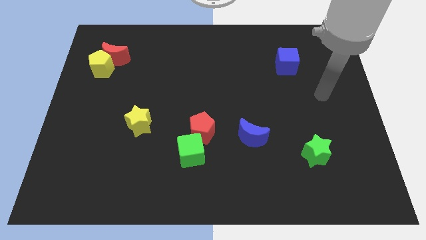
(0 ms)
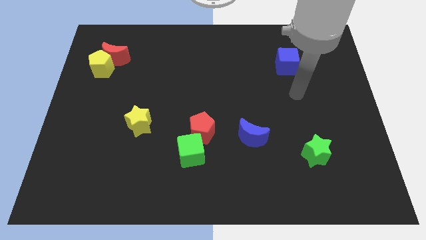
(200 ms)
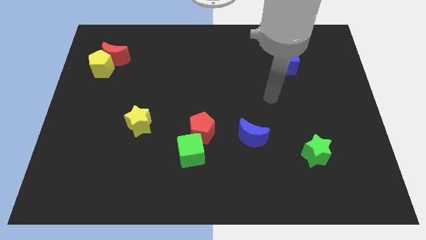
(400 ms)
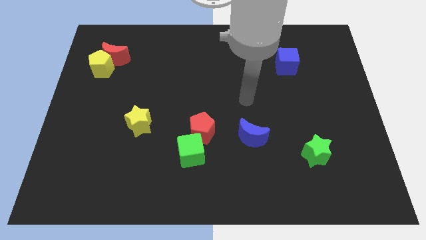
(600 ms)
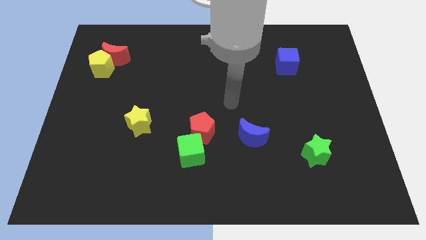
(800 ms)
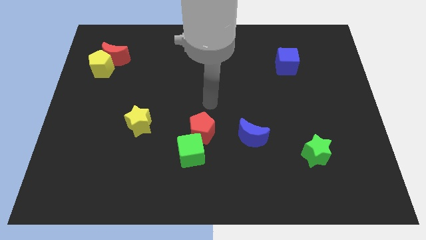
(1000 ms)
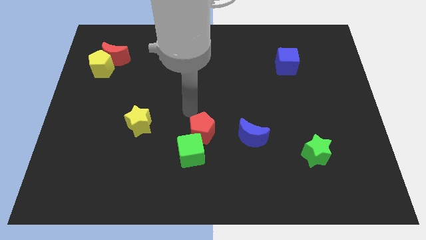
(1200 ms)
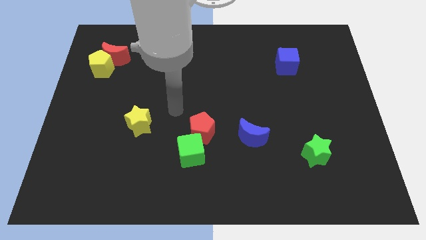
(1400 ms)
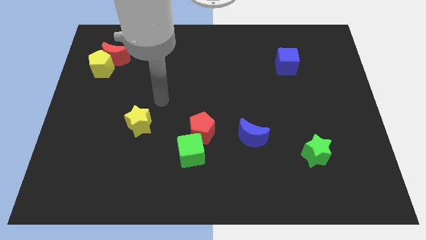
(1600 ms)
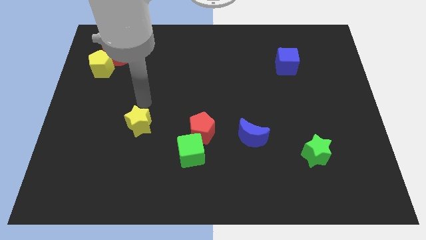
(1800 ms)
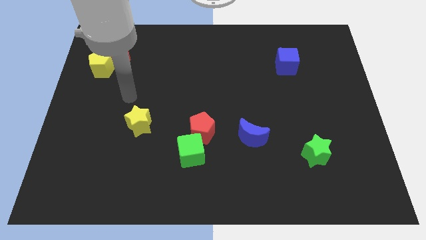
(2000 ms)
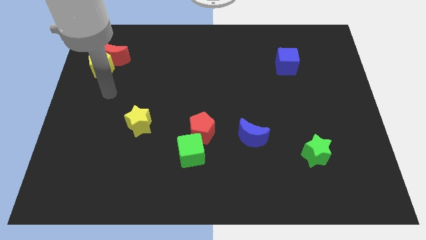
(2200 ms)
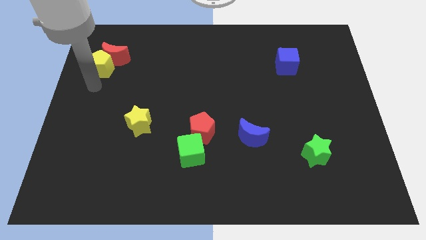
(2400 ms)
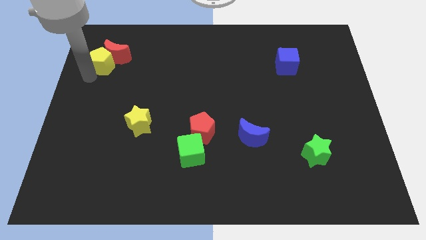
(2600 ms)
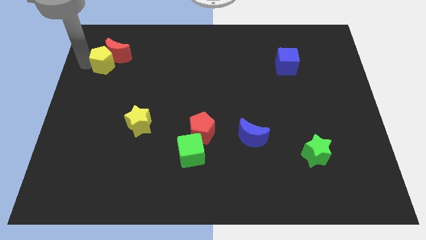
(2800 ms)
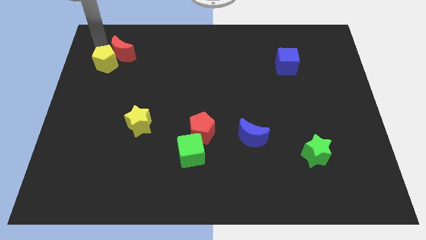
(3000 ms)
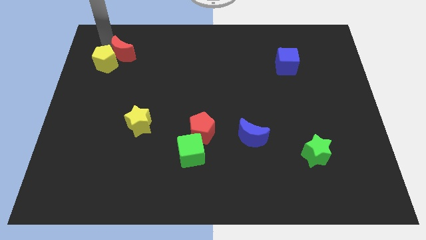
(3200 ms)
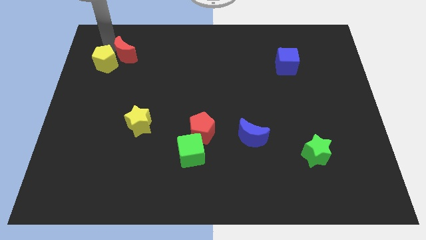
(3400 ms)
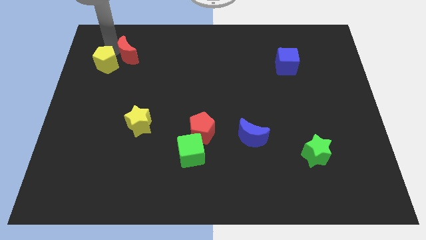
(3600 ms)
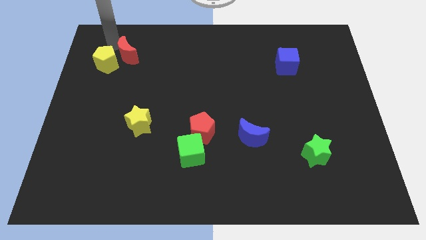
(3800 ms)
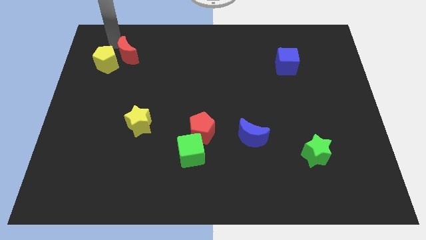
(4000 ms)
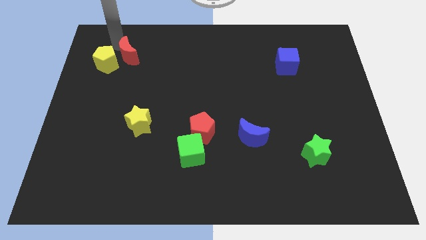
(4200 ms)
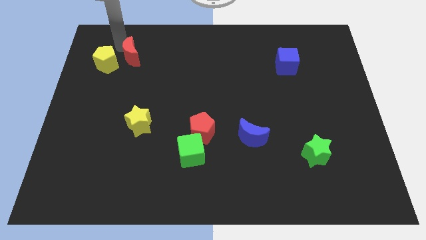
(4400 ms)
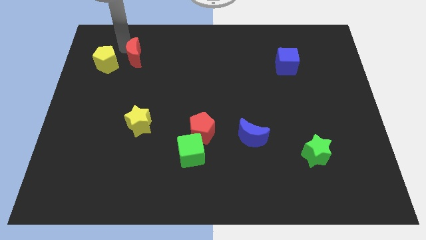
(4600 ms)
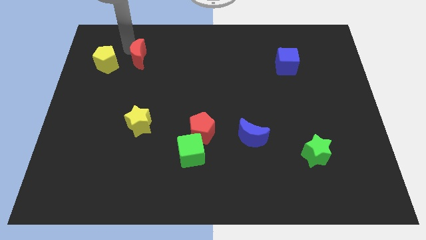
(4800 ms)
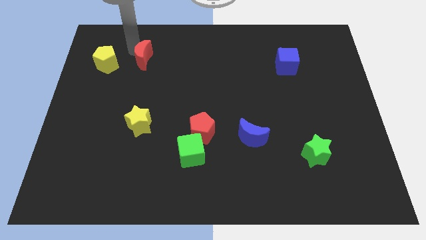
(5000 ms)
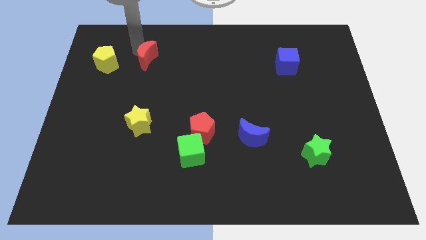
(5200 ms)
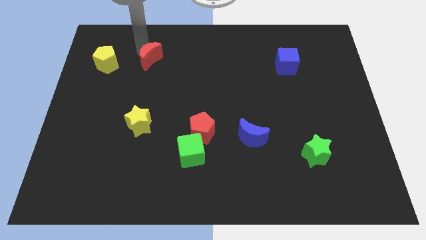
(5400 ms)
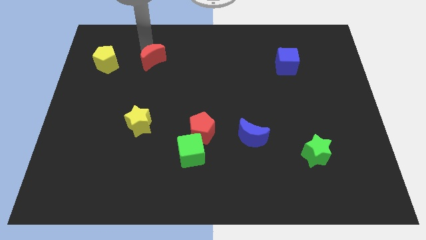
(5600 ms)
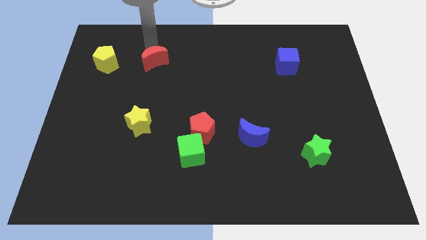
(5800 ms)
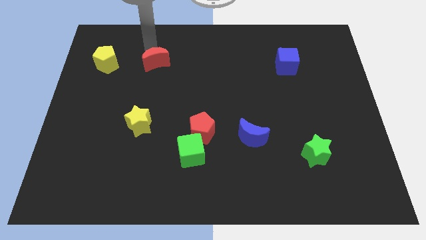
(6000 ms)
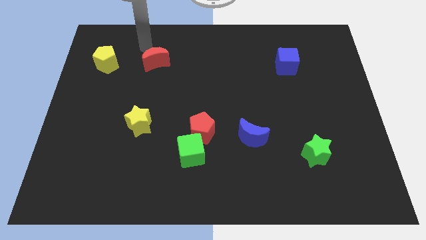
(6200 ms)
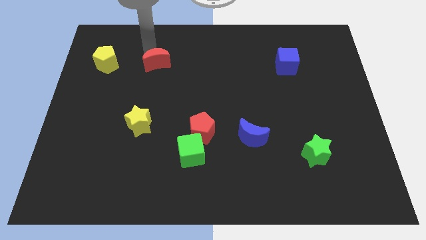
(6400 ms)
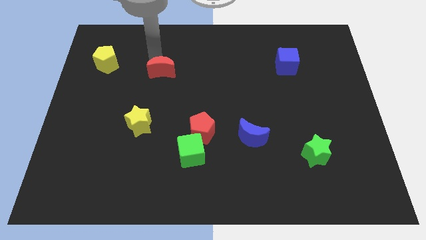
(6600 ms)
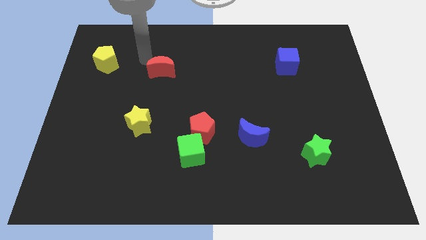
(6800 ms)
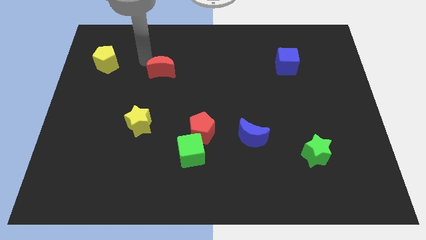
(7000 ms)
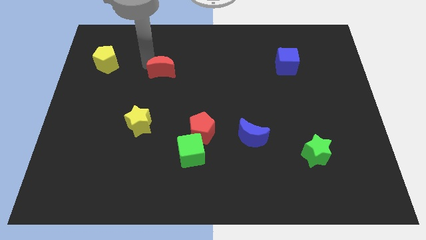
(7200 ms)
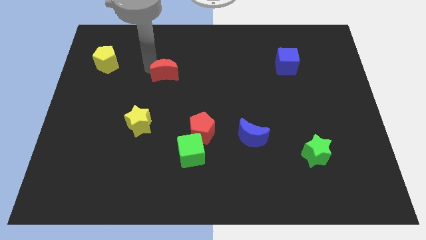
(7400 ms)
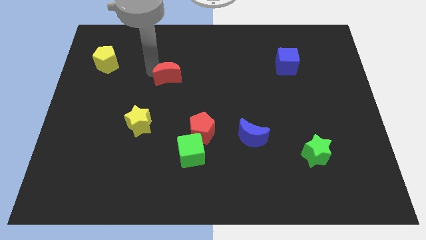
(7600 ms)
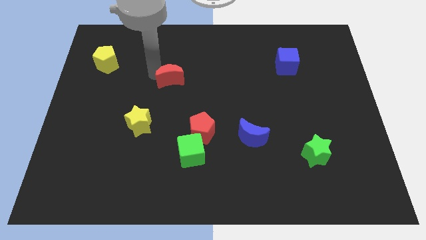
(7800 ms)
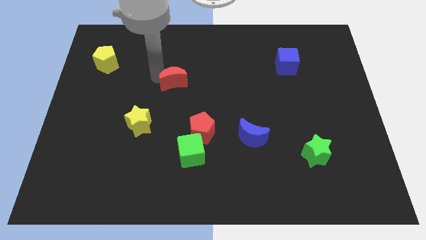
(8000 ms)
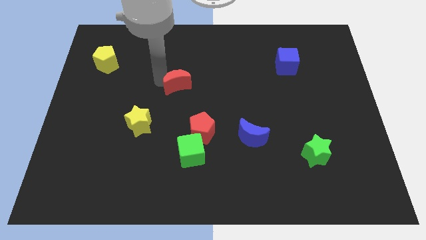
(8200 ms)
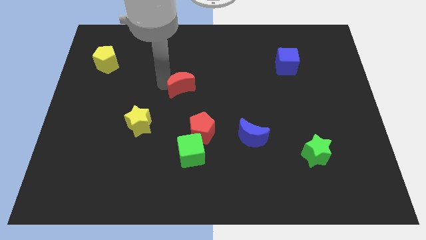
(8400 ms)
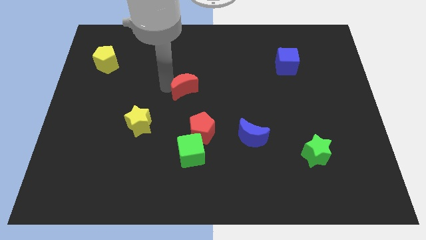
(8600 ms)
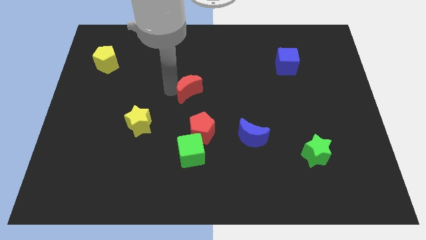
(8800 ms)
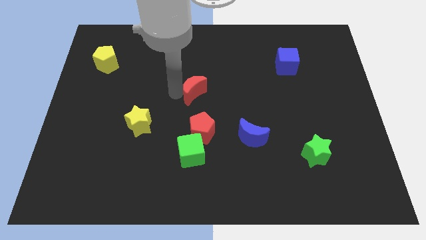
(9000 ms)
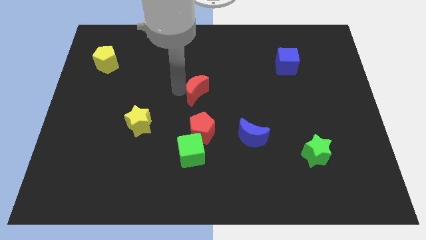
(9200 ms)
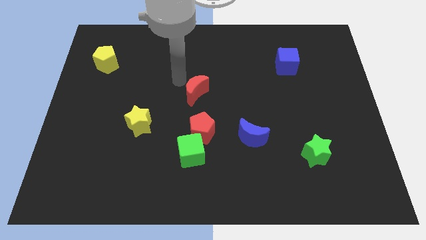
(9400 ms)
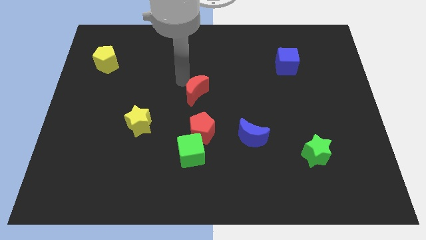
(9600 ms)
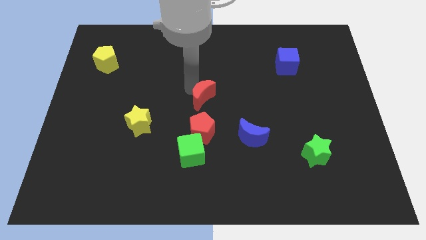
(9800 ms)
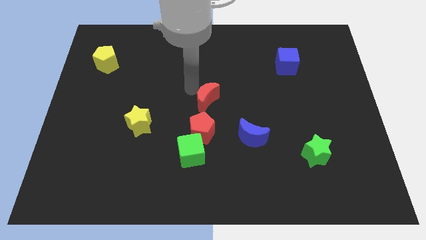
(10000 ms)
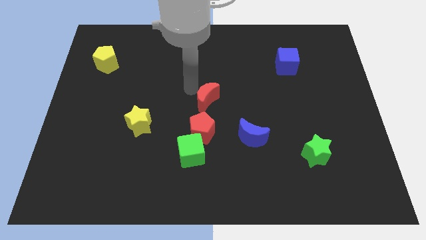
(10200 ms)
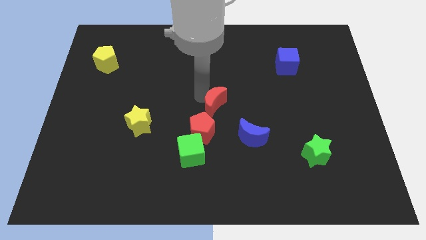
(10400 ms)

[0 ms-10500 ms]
push the red moon to the top right of the red pentagon

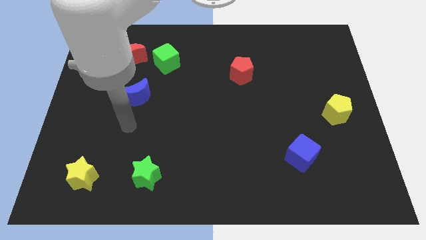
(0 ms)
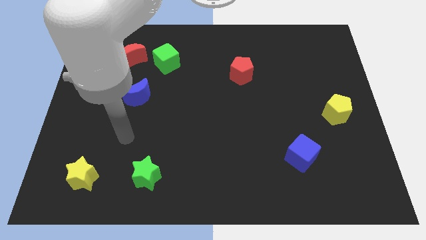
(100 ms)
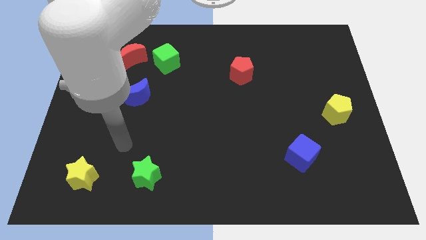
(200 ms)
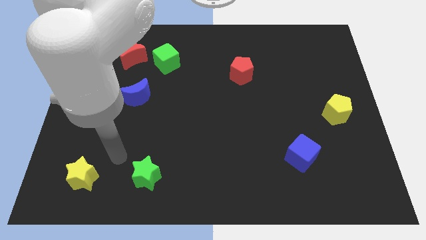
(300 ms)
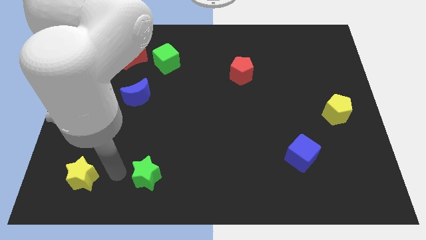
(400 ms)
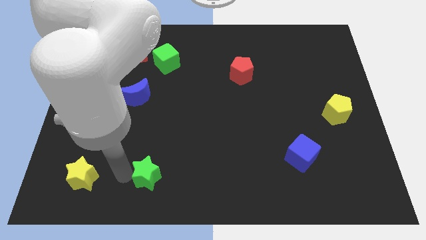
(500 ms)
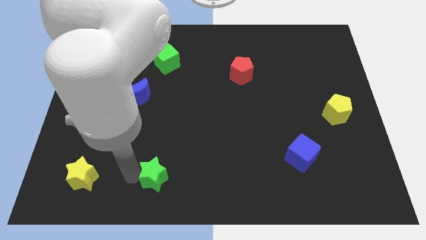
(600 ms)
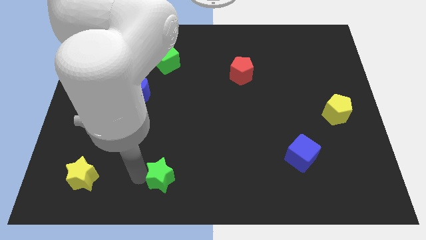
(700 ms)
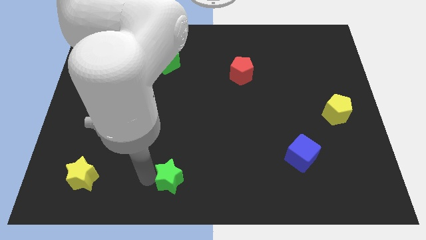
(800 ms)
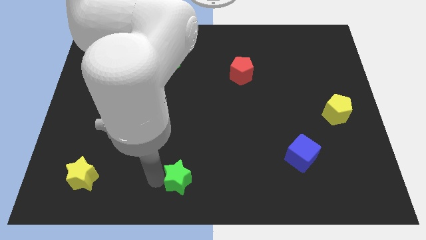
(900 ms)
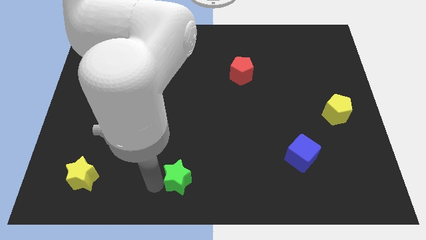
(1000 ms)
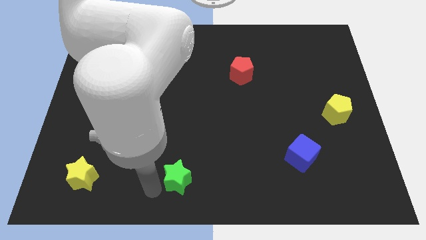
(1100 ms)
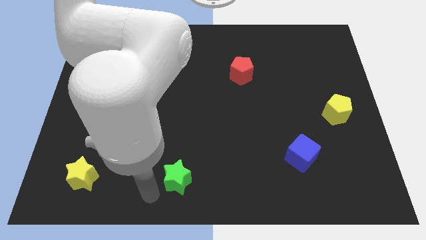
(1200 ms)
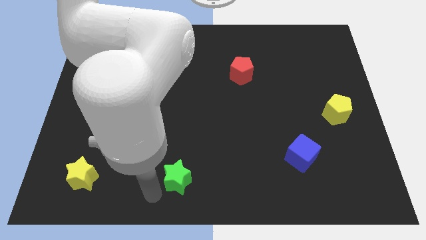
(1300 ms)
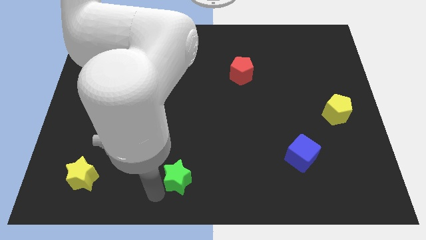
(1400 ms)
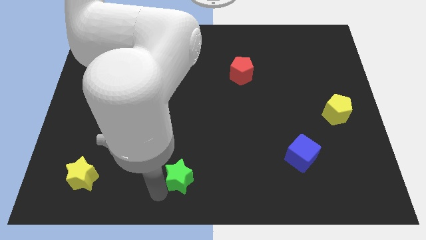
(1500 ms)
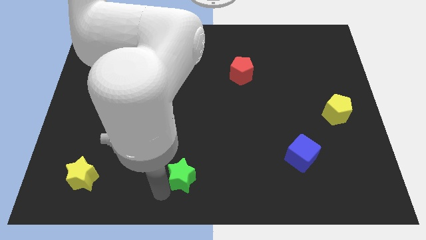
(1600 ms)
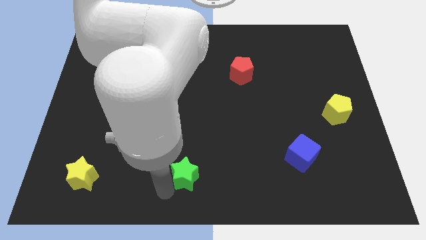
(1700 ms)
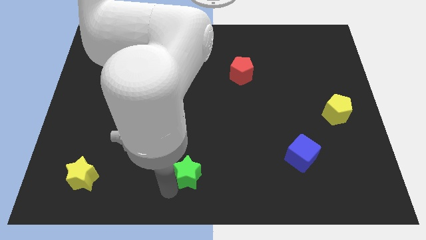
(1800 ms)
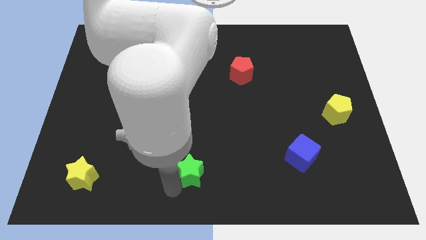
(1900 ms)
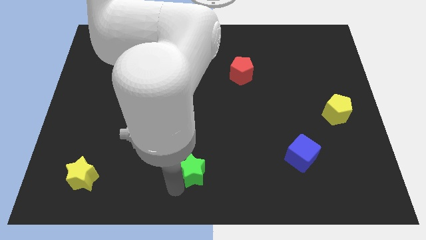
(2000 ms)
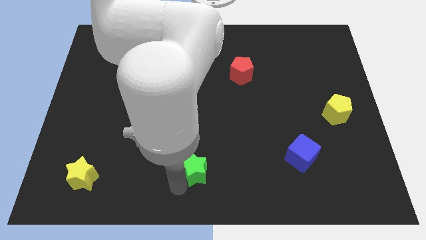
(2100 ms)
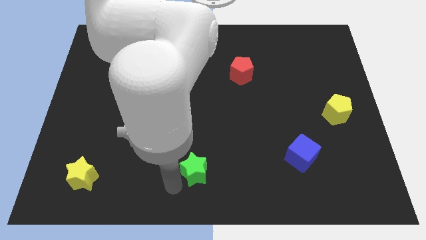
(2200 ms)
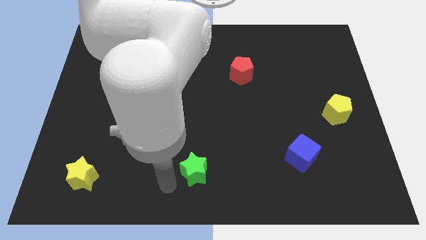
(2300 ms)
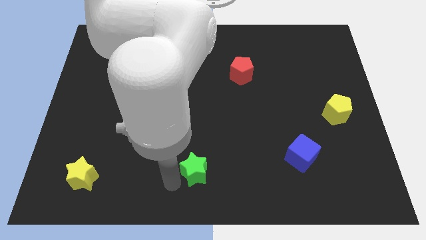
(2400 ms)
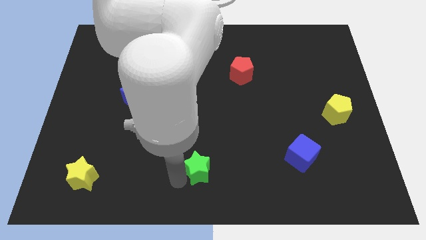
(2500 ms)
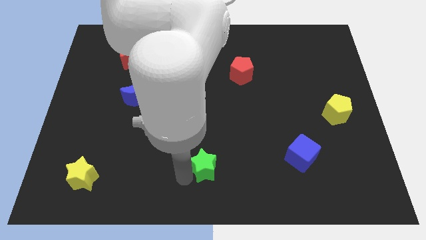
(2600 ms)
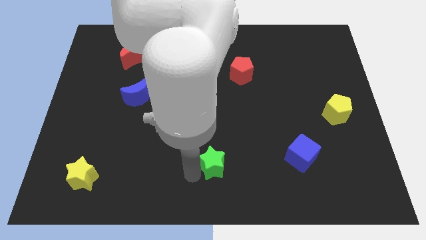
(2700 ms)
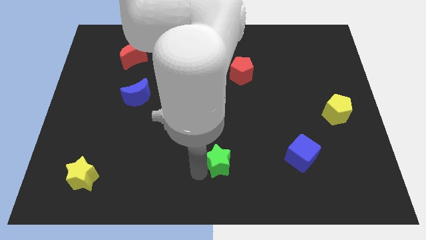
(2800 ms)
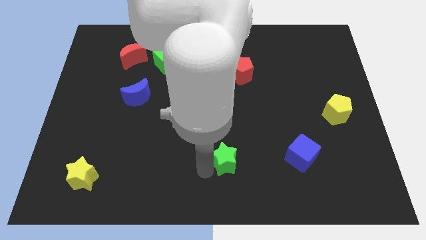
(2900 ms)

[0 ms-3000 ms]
put the green star left of the blue cube
